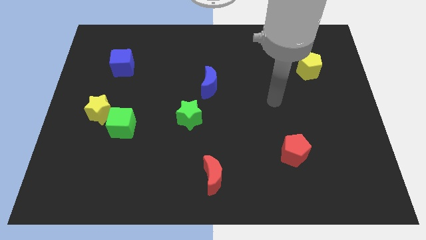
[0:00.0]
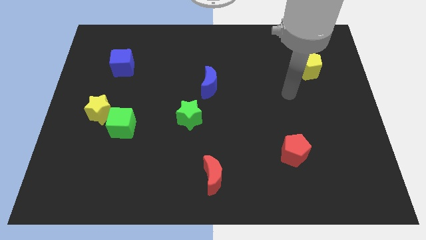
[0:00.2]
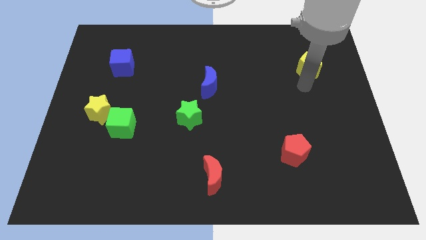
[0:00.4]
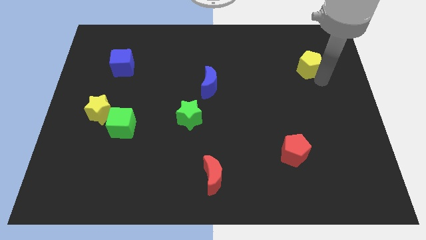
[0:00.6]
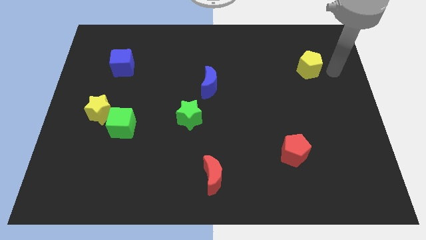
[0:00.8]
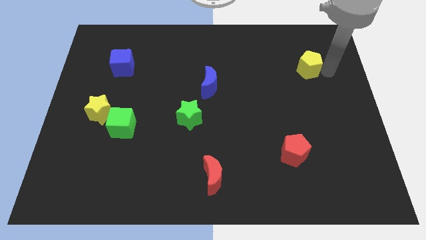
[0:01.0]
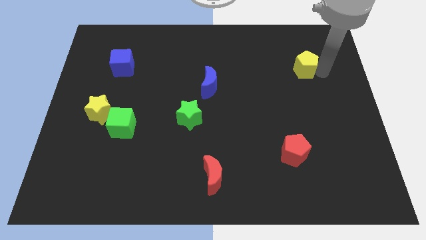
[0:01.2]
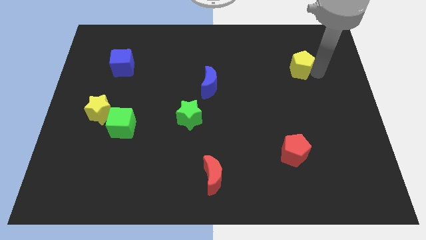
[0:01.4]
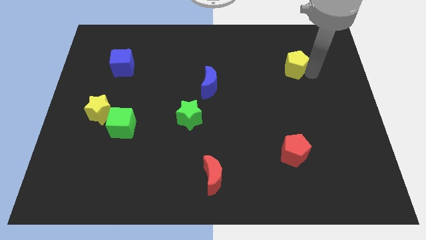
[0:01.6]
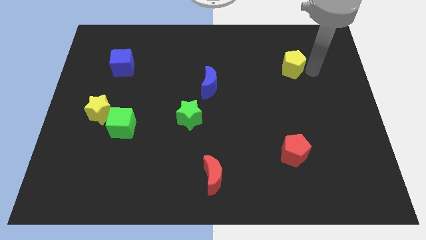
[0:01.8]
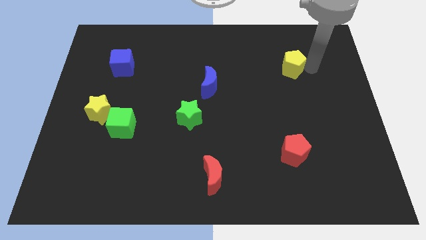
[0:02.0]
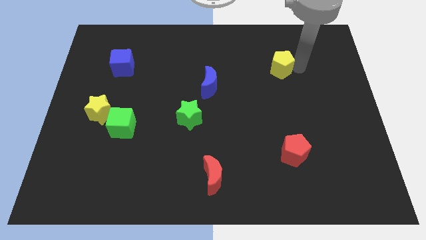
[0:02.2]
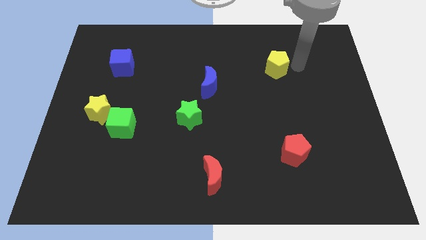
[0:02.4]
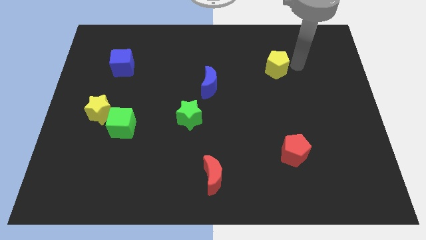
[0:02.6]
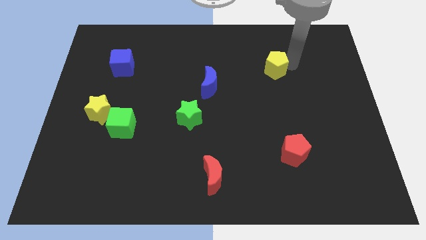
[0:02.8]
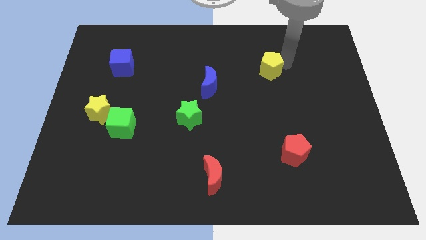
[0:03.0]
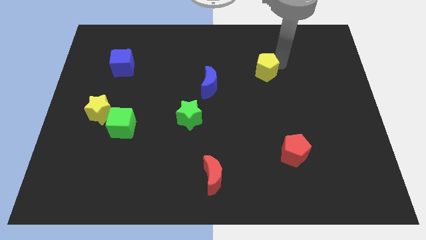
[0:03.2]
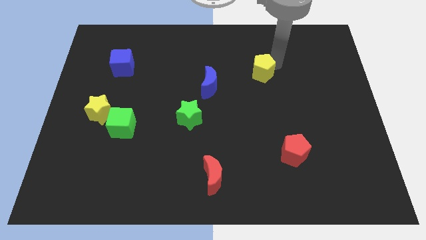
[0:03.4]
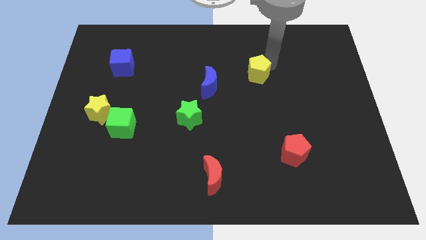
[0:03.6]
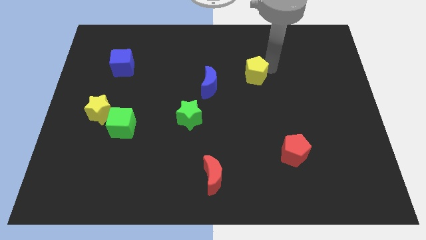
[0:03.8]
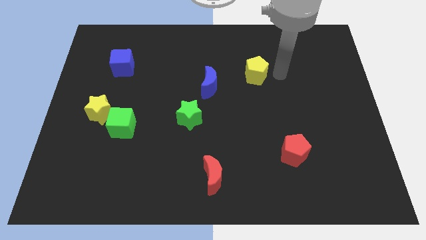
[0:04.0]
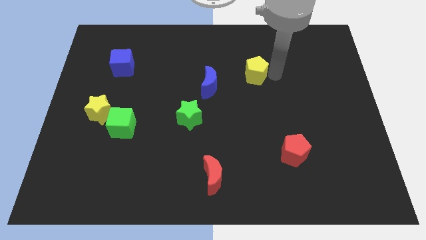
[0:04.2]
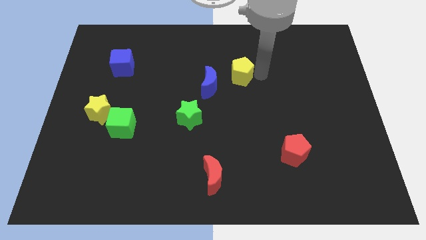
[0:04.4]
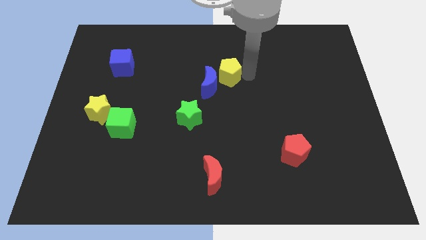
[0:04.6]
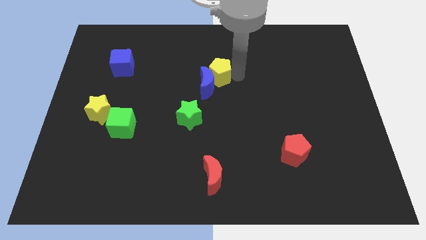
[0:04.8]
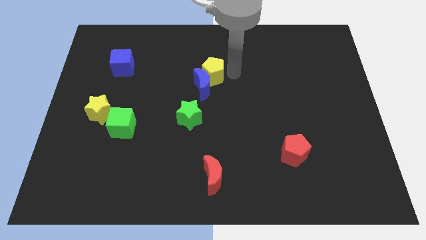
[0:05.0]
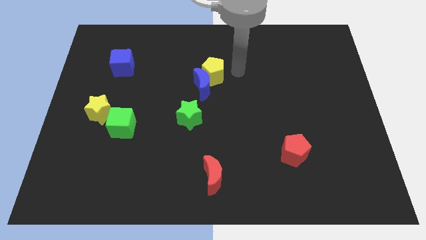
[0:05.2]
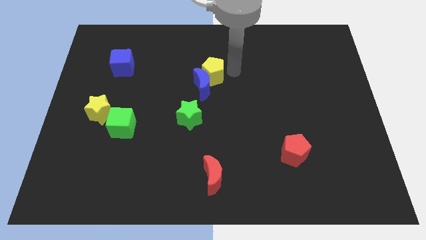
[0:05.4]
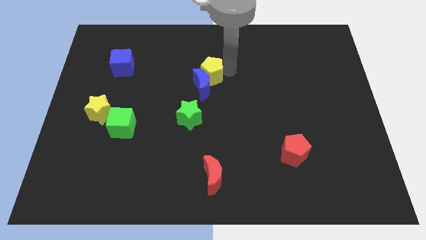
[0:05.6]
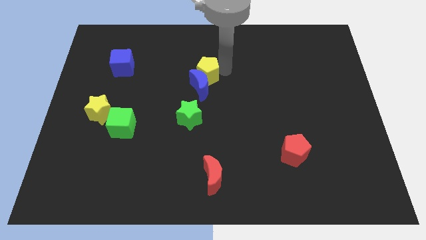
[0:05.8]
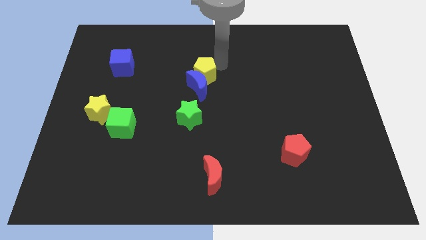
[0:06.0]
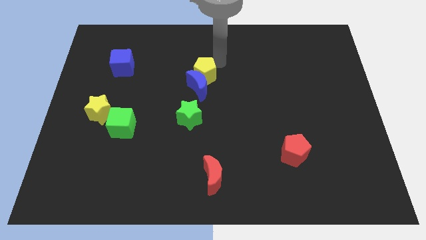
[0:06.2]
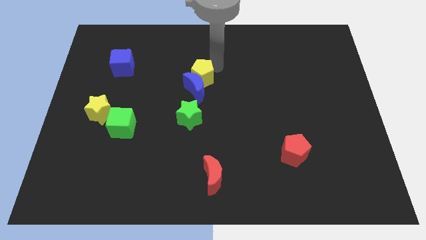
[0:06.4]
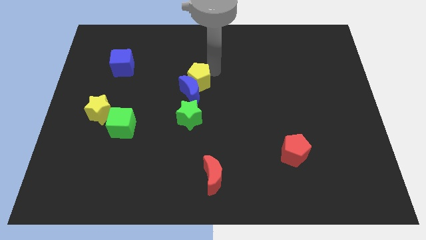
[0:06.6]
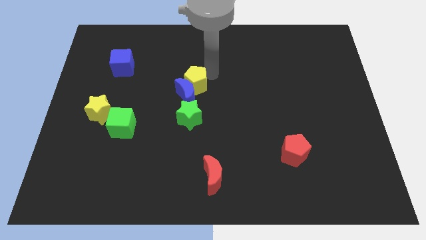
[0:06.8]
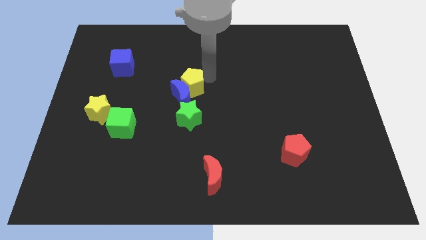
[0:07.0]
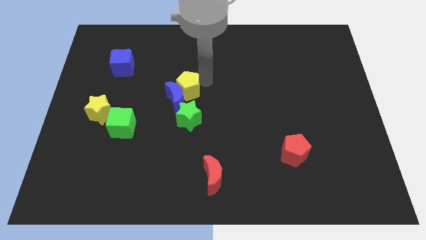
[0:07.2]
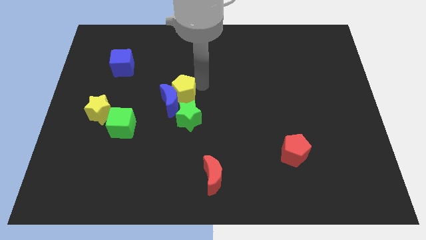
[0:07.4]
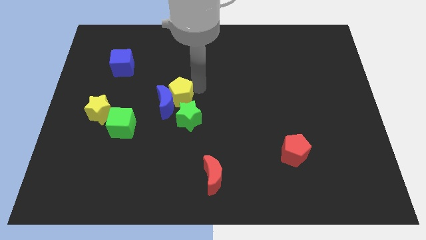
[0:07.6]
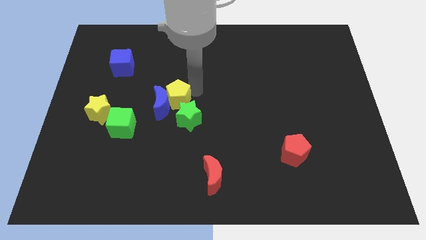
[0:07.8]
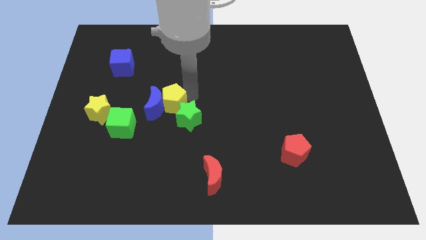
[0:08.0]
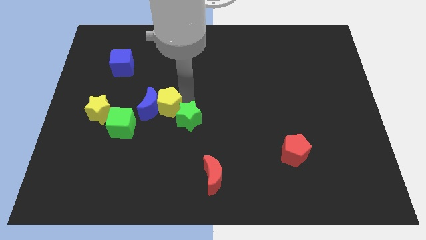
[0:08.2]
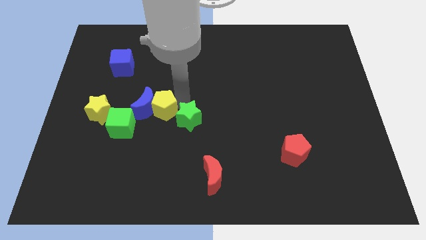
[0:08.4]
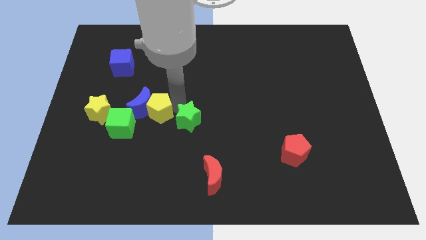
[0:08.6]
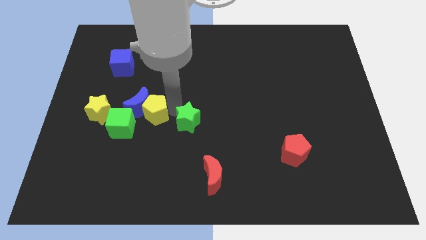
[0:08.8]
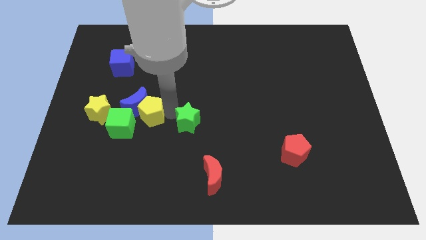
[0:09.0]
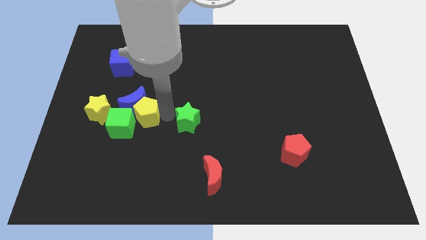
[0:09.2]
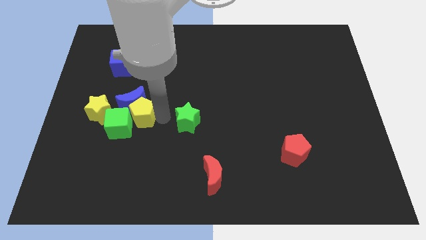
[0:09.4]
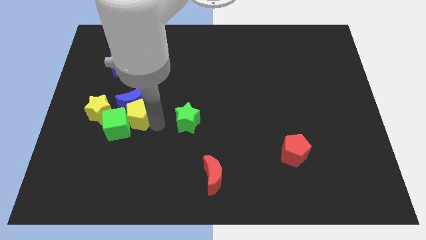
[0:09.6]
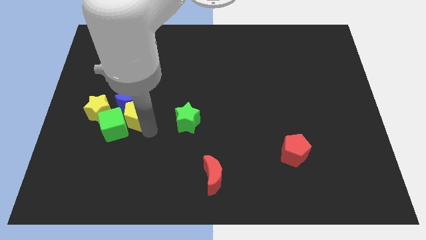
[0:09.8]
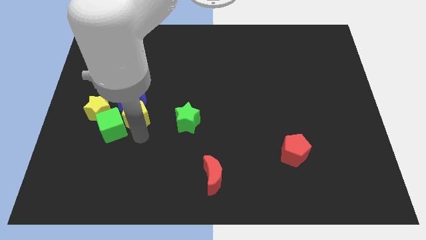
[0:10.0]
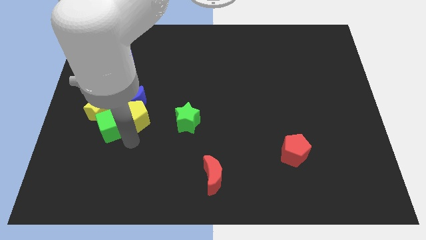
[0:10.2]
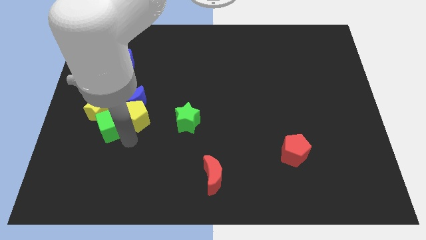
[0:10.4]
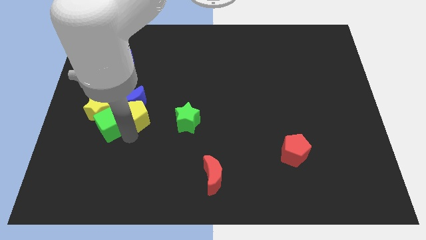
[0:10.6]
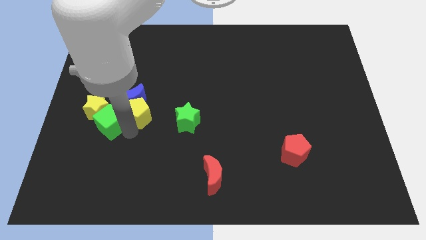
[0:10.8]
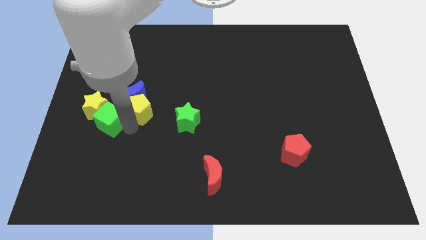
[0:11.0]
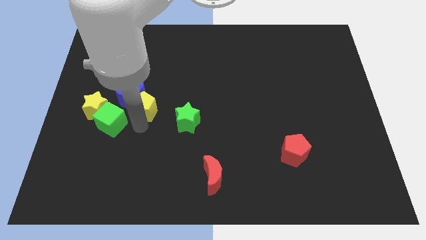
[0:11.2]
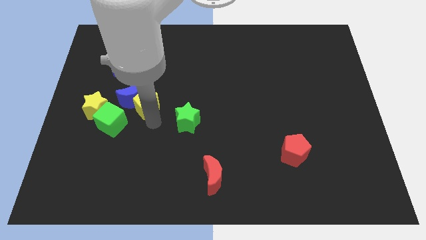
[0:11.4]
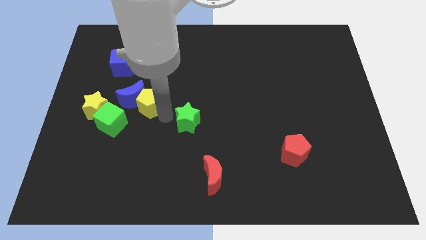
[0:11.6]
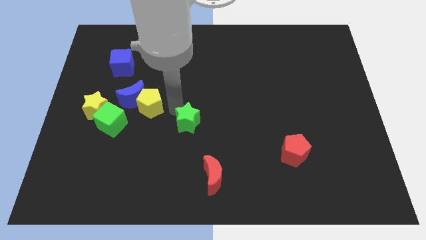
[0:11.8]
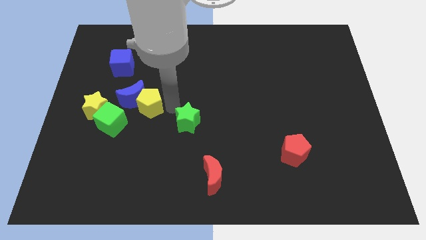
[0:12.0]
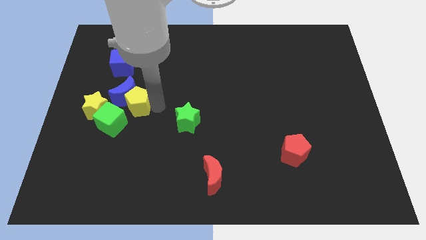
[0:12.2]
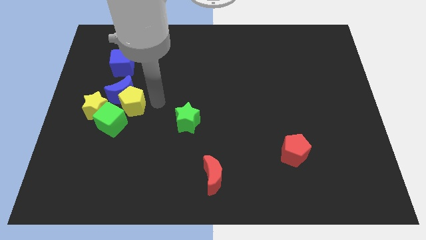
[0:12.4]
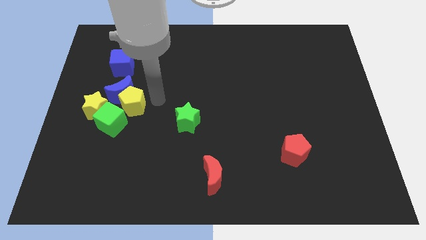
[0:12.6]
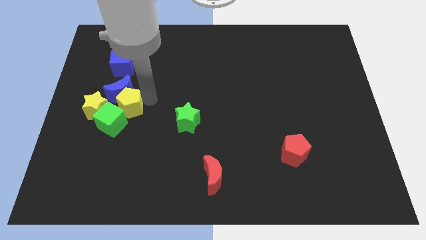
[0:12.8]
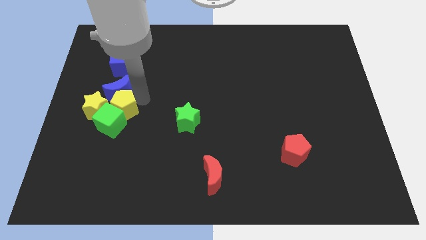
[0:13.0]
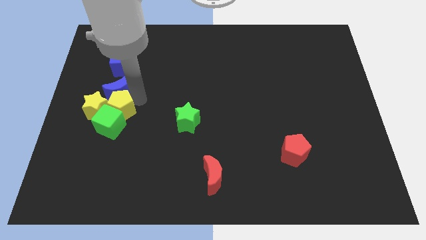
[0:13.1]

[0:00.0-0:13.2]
slide the yellow pentagon next to the yellow star

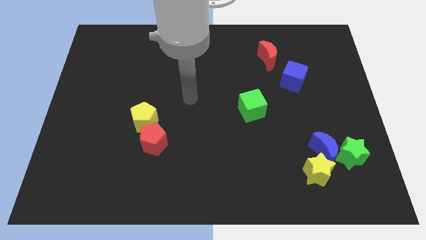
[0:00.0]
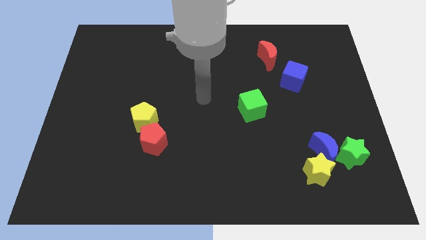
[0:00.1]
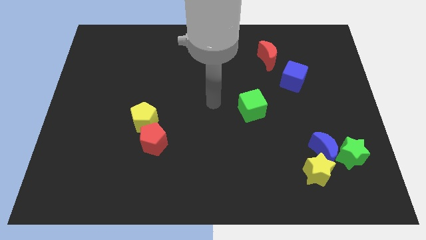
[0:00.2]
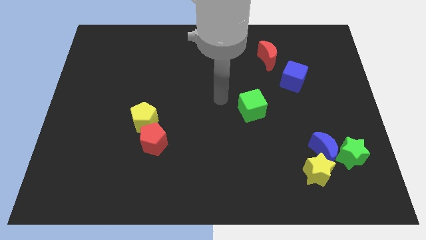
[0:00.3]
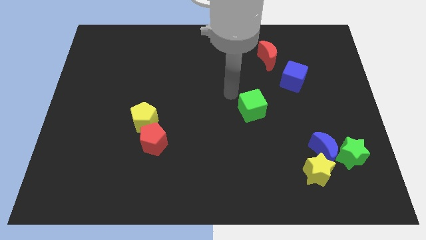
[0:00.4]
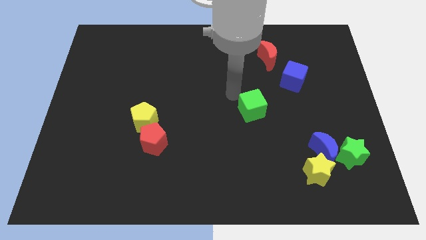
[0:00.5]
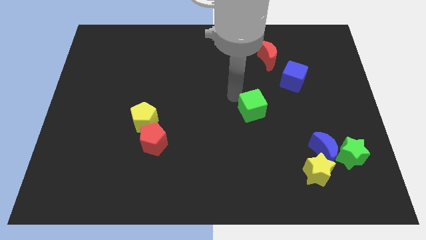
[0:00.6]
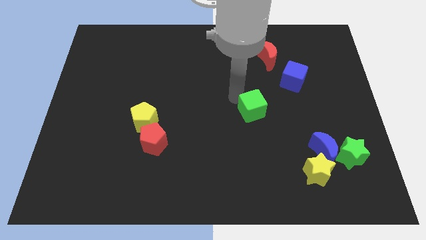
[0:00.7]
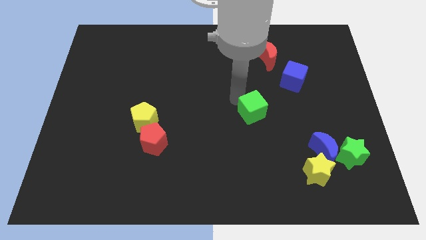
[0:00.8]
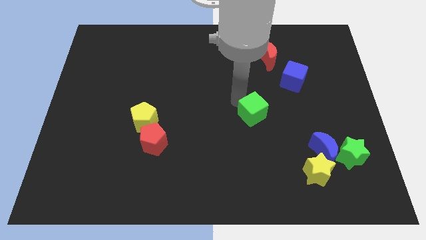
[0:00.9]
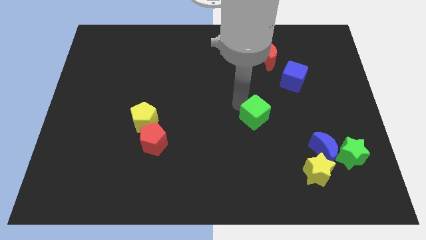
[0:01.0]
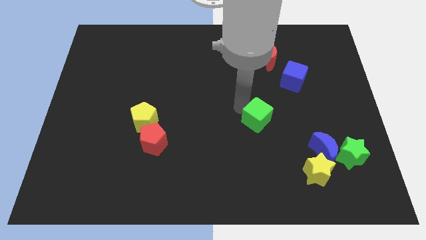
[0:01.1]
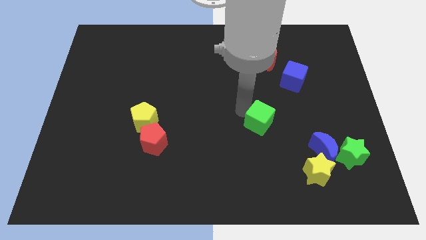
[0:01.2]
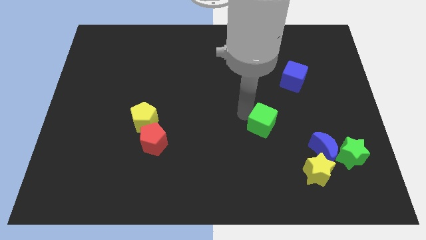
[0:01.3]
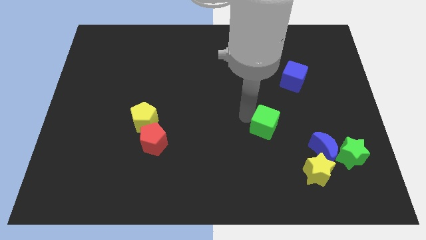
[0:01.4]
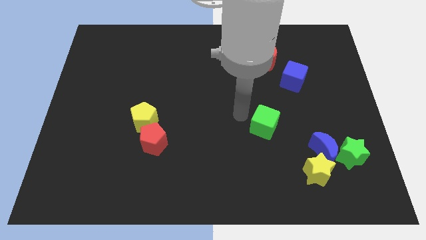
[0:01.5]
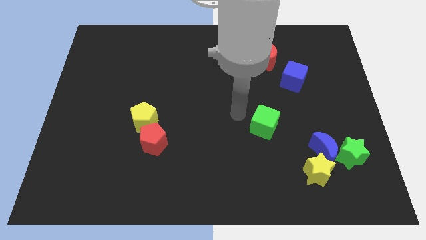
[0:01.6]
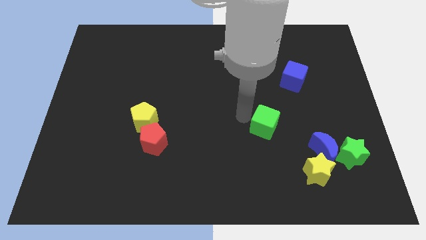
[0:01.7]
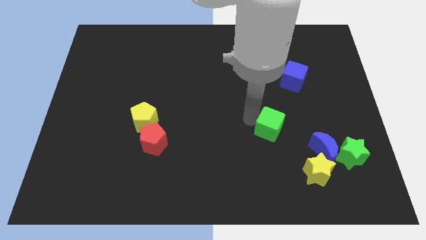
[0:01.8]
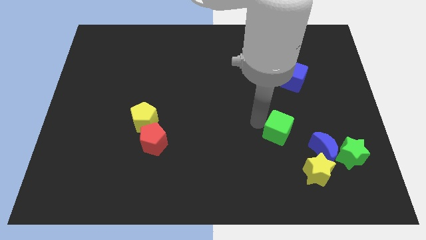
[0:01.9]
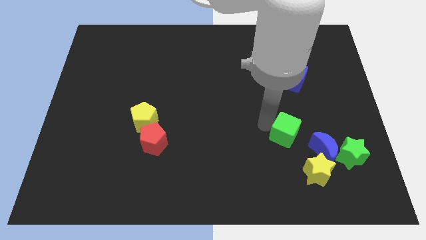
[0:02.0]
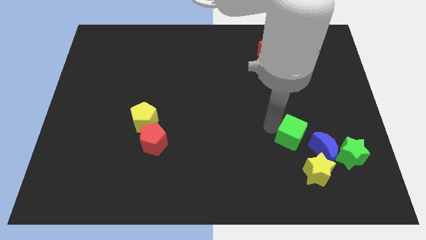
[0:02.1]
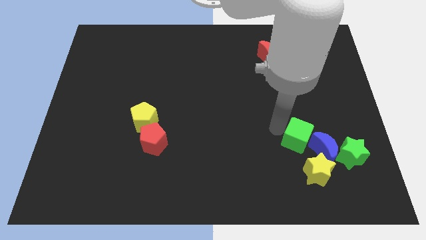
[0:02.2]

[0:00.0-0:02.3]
push the green cube next to the blue moon
